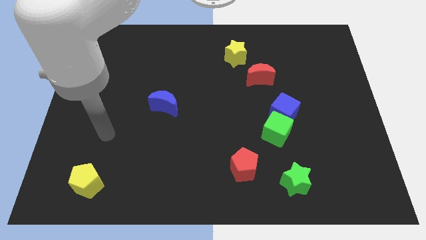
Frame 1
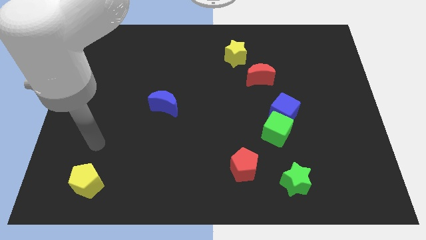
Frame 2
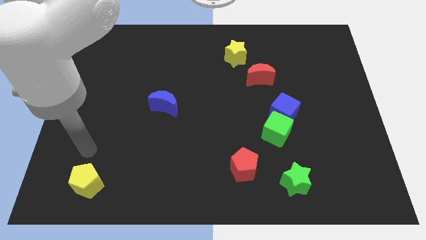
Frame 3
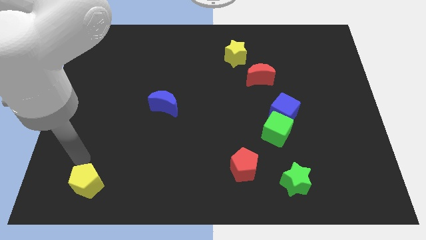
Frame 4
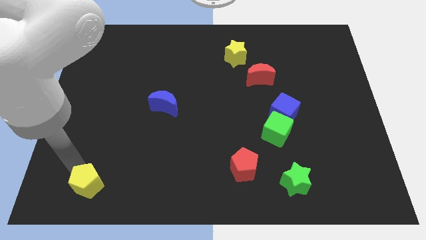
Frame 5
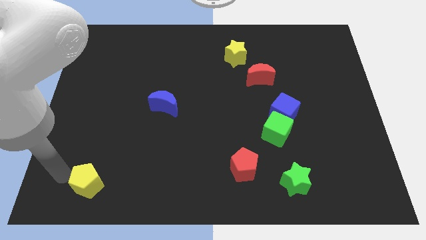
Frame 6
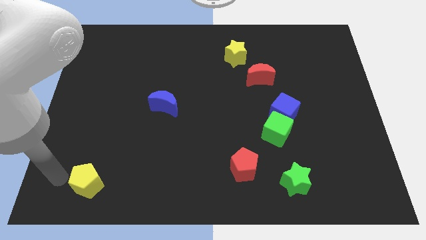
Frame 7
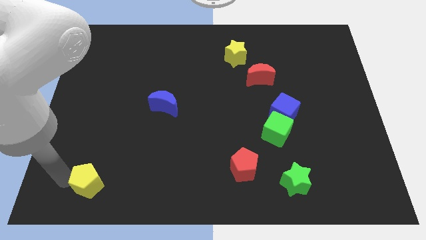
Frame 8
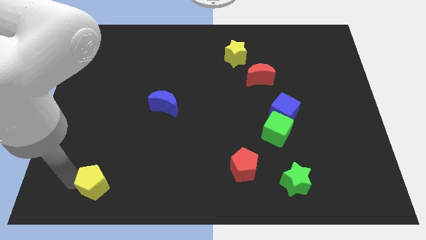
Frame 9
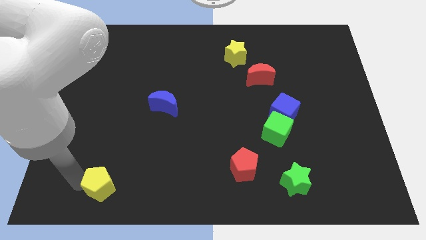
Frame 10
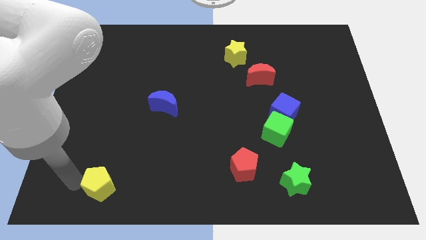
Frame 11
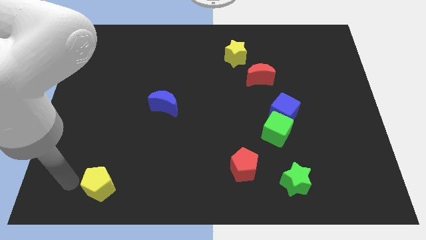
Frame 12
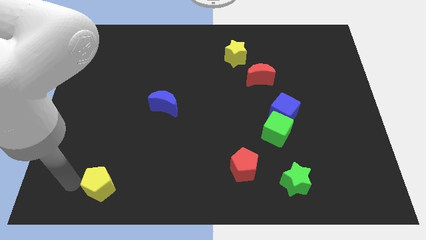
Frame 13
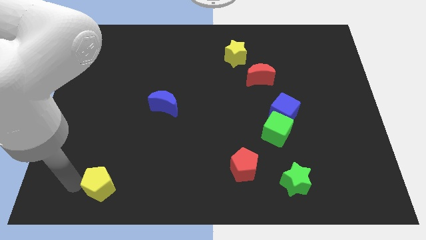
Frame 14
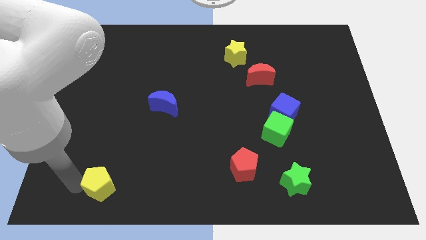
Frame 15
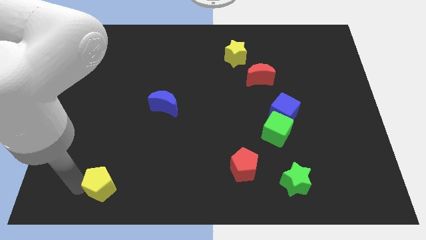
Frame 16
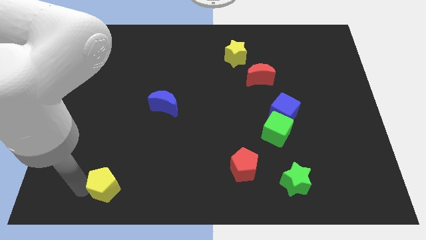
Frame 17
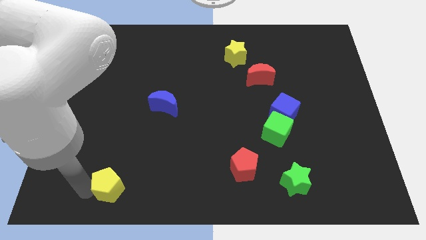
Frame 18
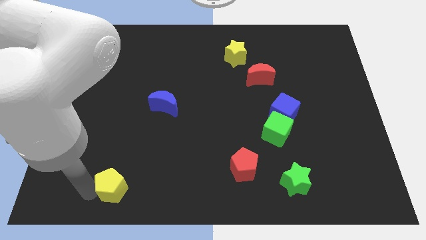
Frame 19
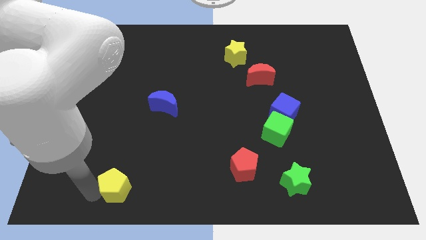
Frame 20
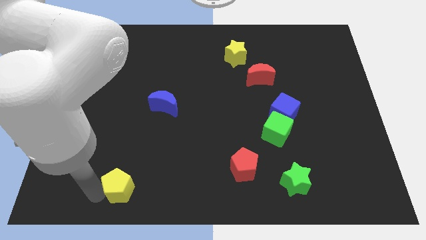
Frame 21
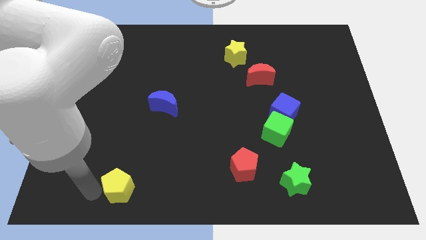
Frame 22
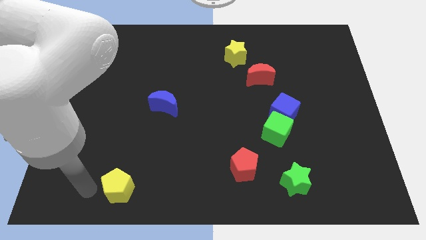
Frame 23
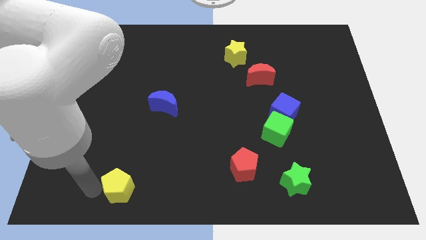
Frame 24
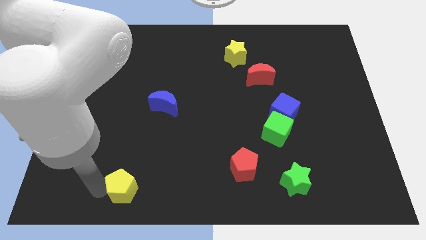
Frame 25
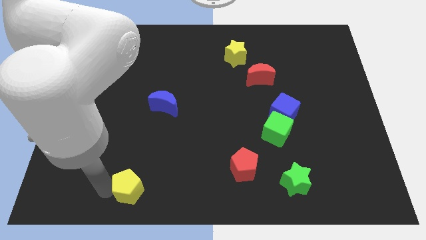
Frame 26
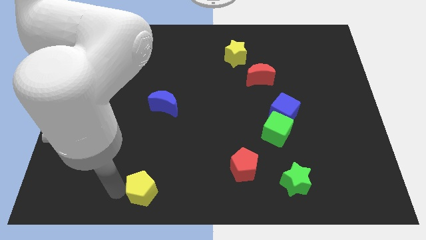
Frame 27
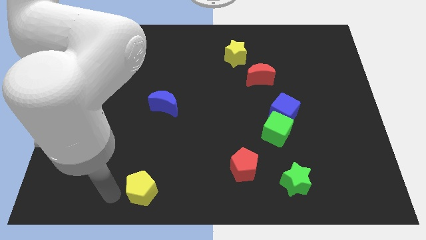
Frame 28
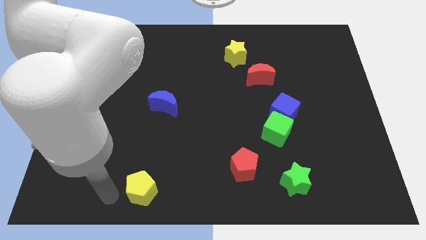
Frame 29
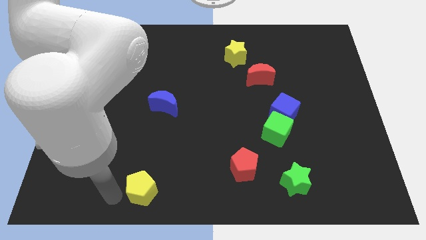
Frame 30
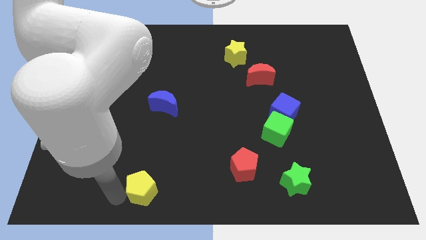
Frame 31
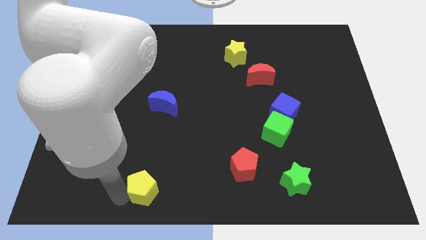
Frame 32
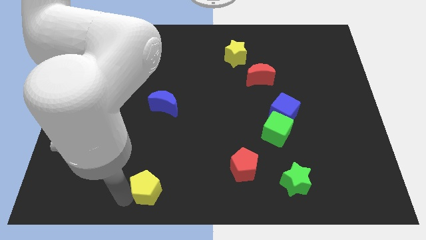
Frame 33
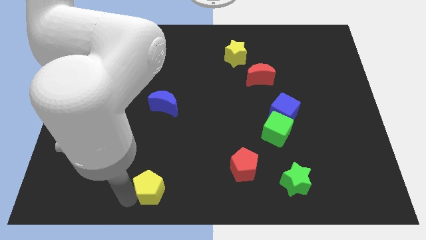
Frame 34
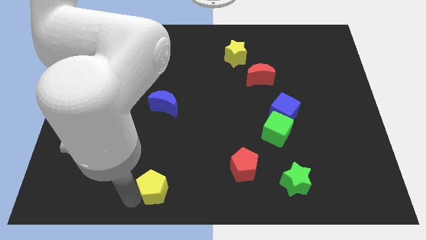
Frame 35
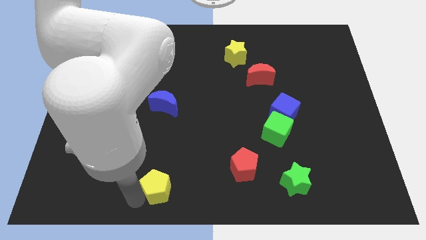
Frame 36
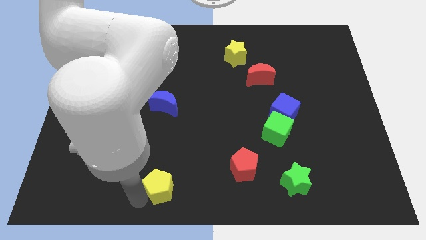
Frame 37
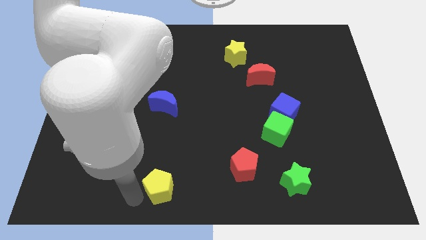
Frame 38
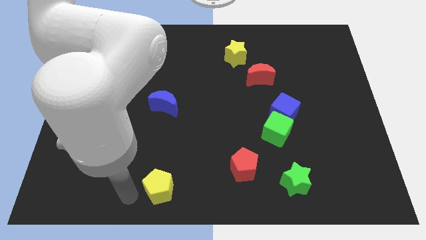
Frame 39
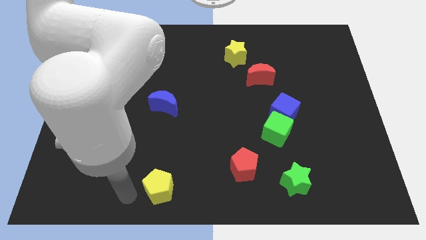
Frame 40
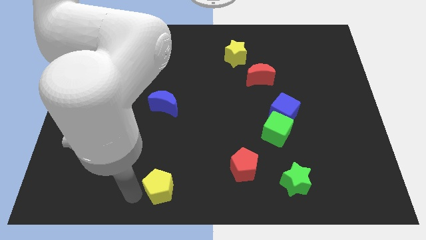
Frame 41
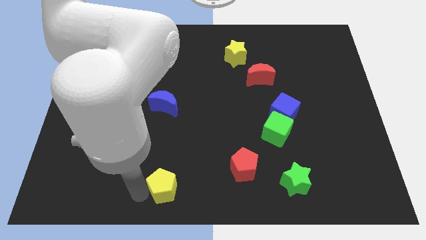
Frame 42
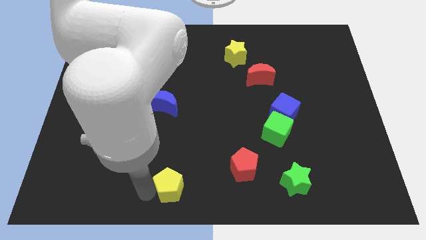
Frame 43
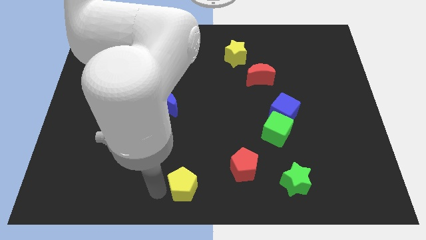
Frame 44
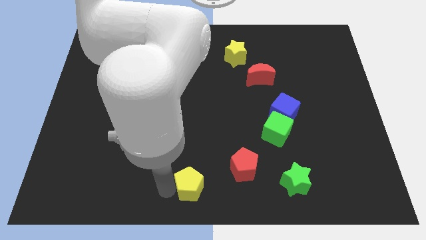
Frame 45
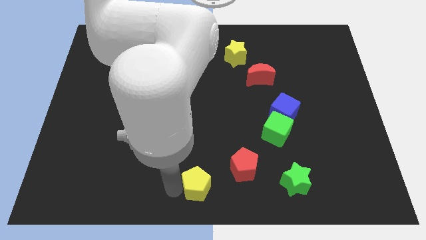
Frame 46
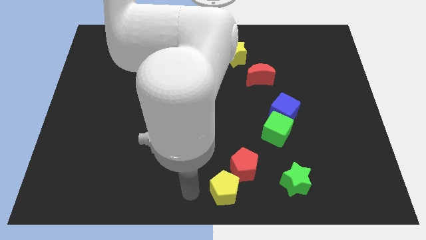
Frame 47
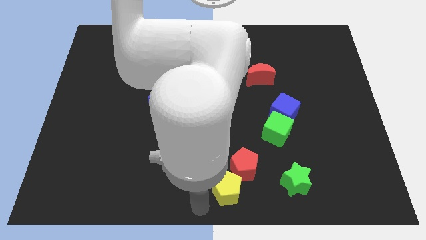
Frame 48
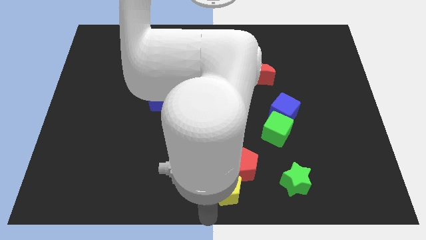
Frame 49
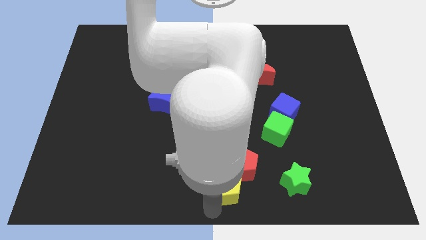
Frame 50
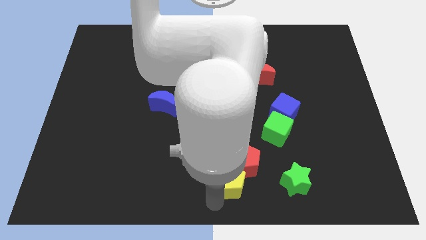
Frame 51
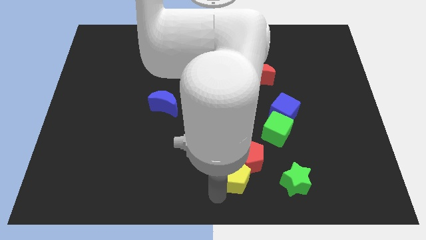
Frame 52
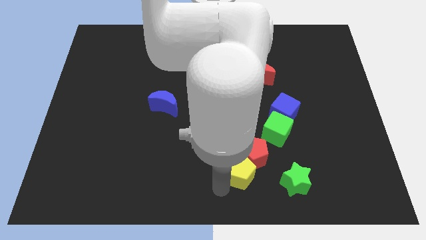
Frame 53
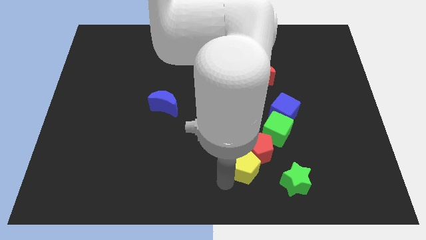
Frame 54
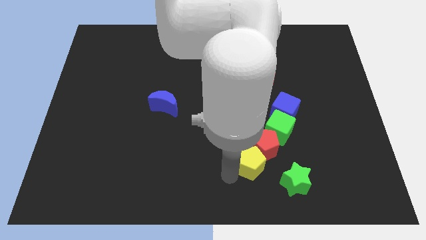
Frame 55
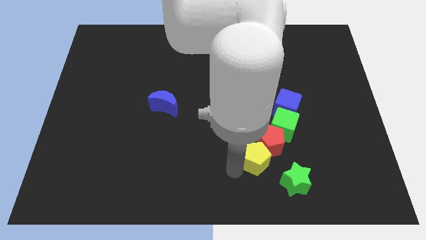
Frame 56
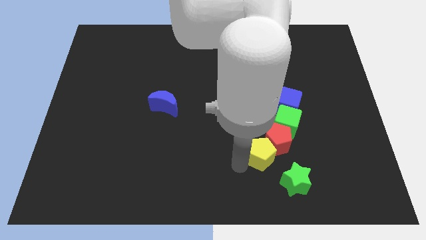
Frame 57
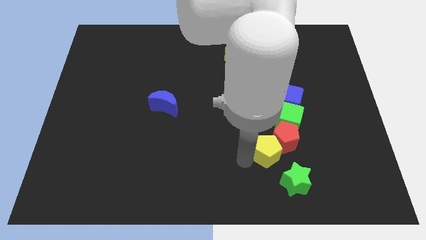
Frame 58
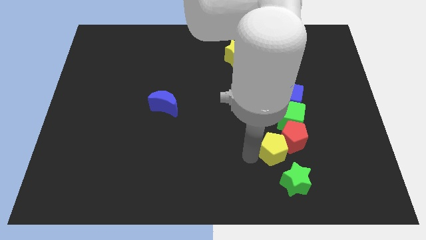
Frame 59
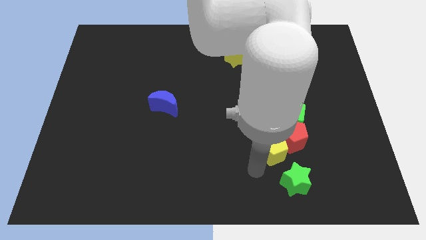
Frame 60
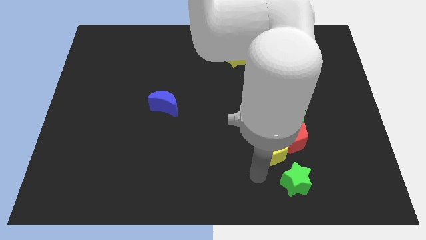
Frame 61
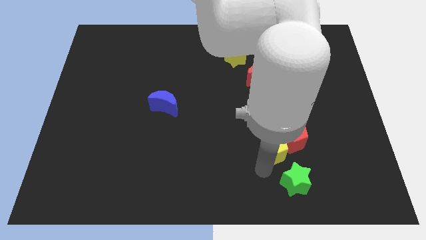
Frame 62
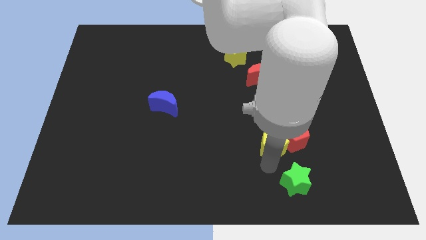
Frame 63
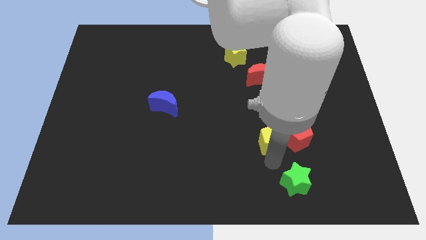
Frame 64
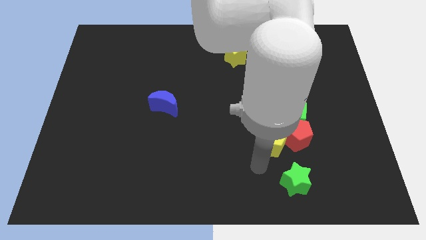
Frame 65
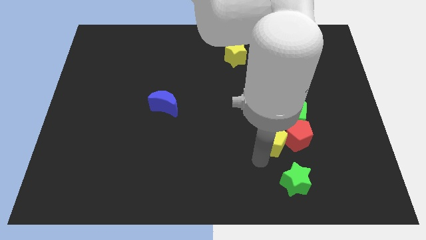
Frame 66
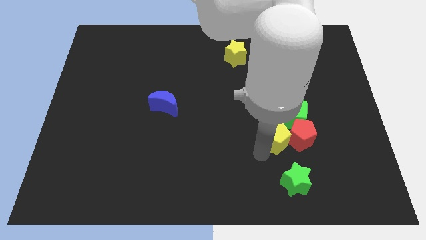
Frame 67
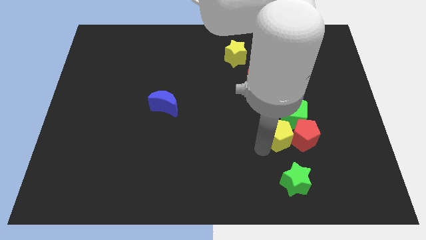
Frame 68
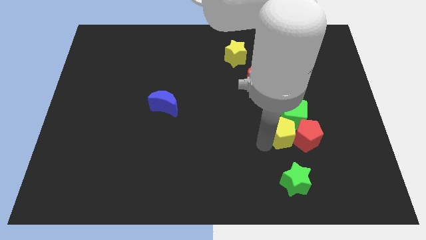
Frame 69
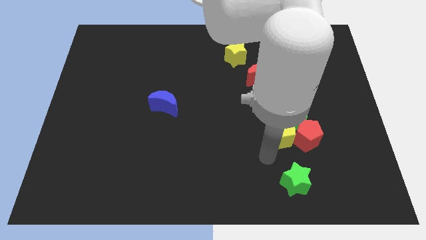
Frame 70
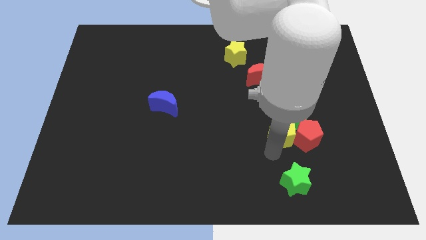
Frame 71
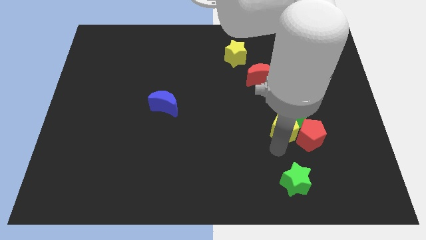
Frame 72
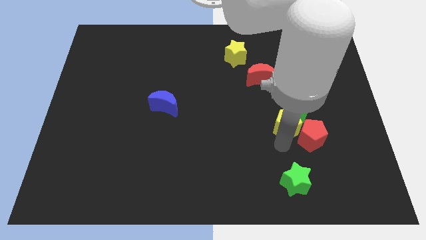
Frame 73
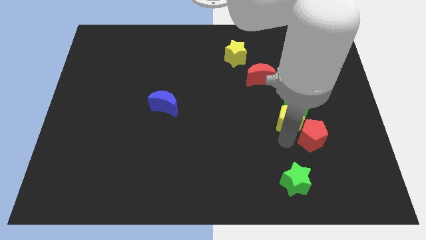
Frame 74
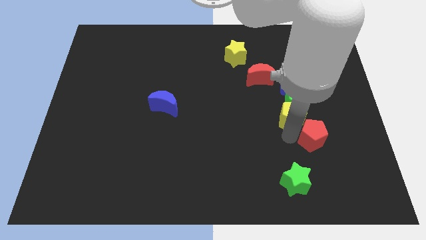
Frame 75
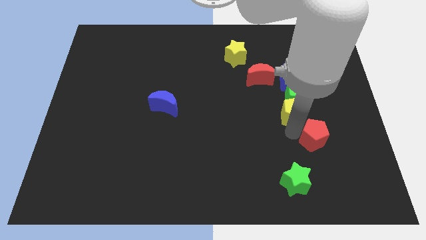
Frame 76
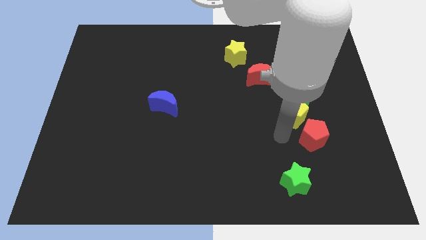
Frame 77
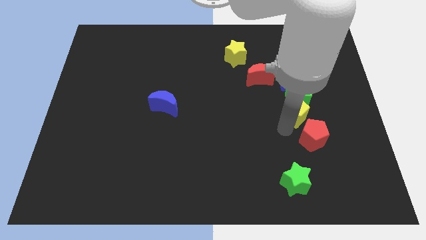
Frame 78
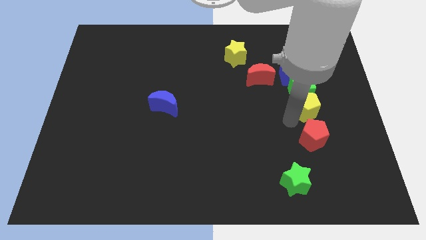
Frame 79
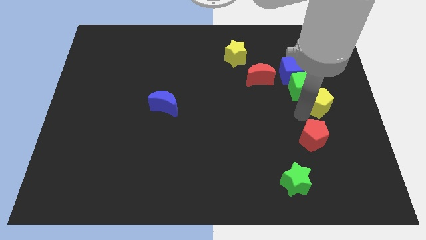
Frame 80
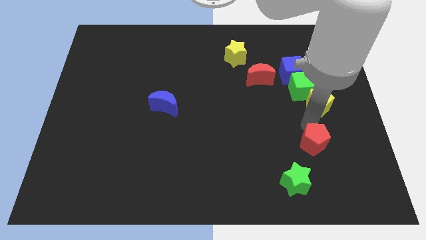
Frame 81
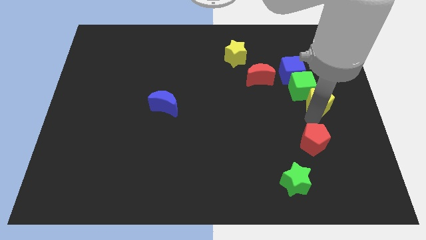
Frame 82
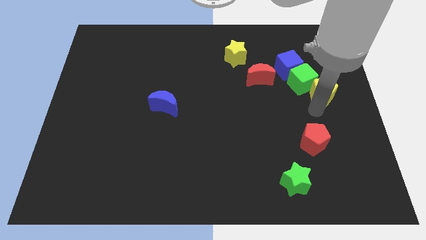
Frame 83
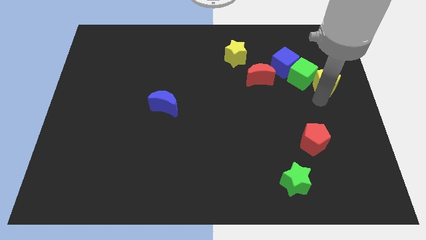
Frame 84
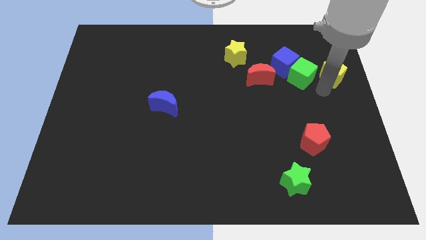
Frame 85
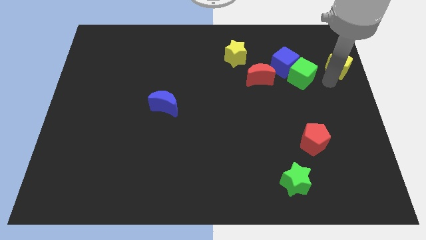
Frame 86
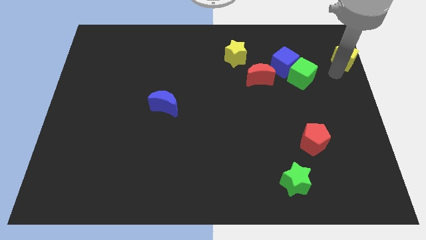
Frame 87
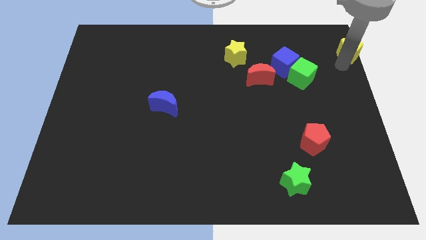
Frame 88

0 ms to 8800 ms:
slide the yellow pentagon to the top right
